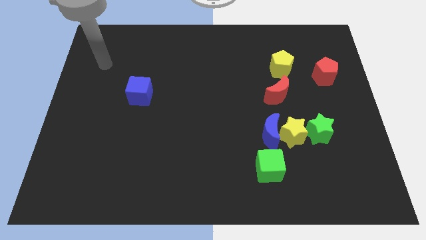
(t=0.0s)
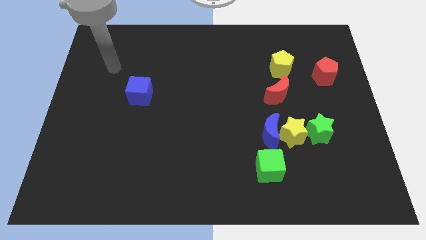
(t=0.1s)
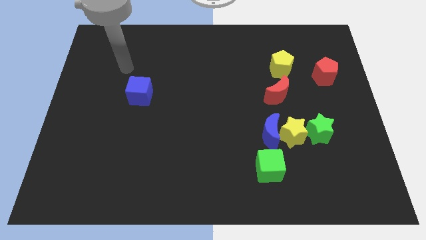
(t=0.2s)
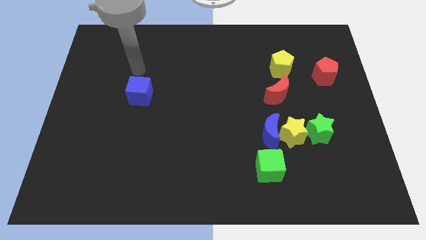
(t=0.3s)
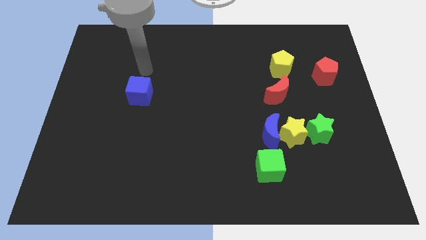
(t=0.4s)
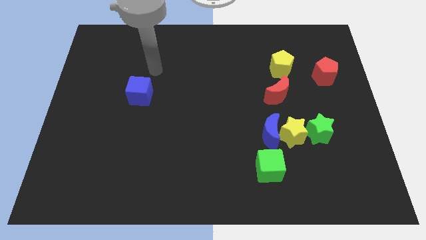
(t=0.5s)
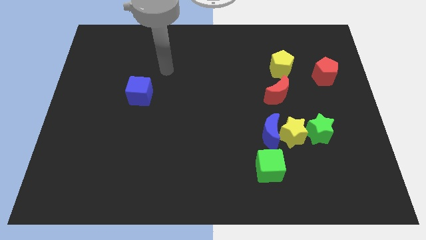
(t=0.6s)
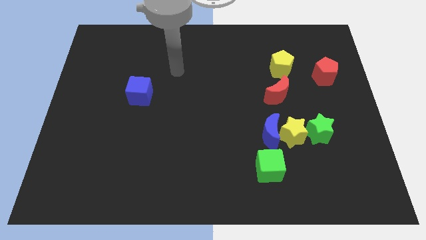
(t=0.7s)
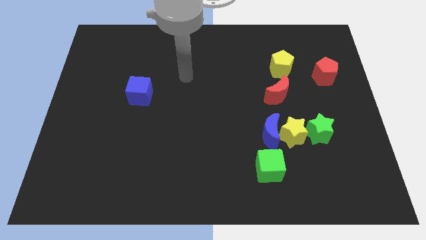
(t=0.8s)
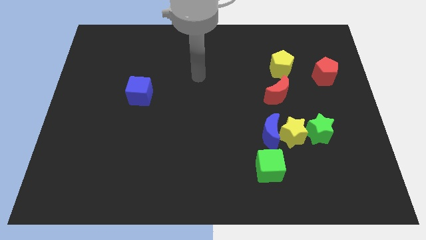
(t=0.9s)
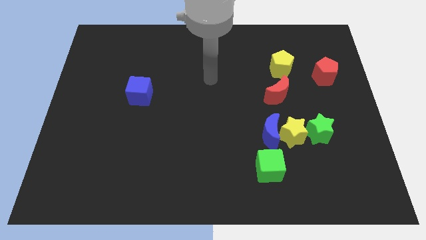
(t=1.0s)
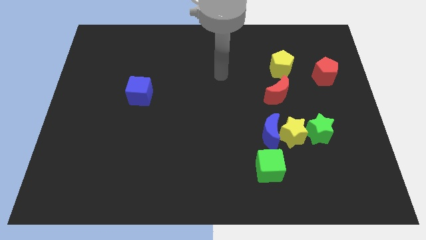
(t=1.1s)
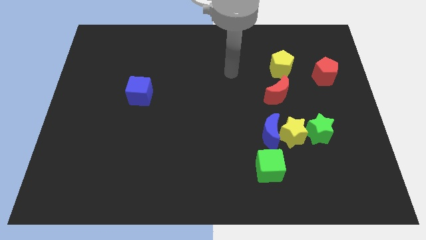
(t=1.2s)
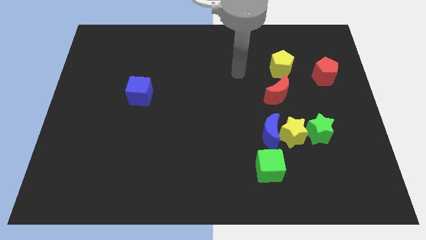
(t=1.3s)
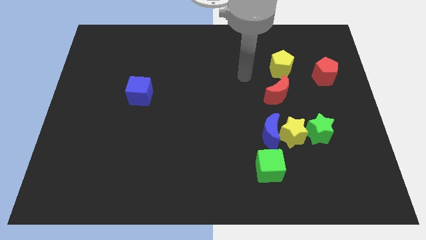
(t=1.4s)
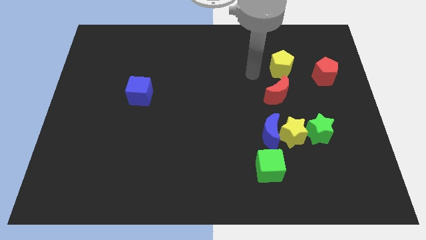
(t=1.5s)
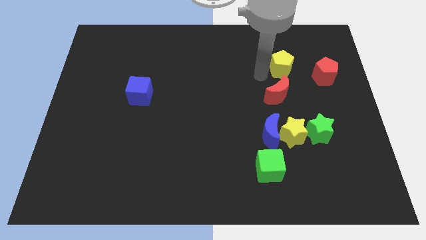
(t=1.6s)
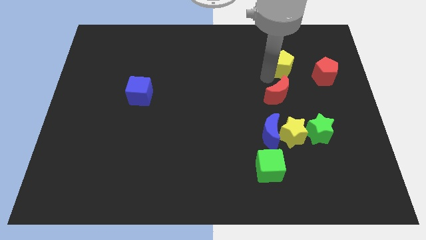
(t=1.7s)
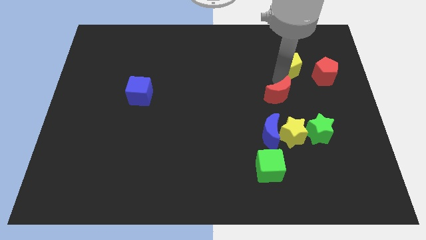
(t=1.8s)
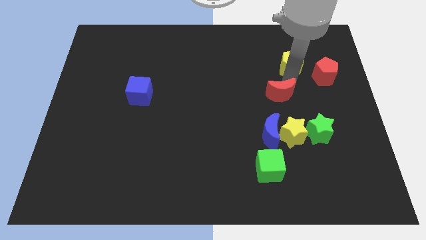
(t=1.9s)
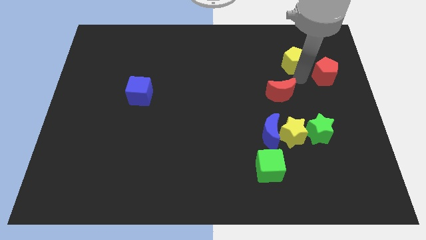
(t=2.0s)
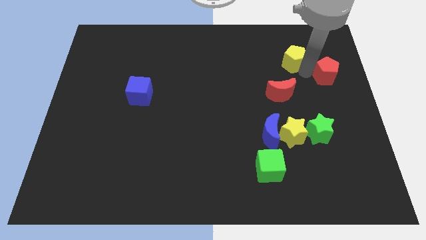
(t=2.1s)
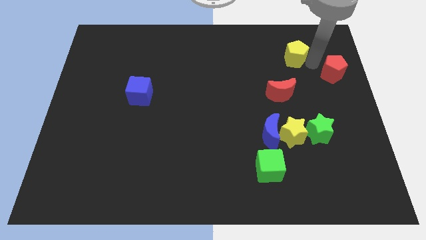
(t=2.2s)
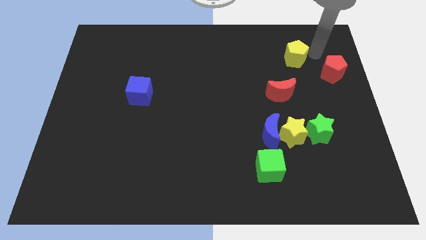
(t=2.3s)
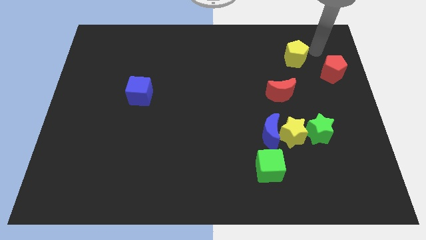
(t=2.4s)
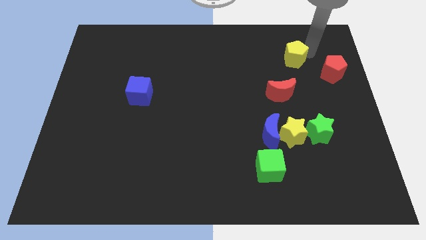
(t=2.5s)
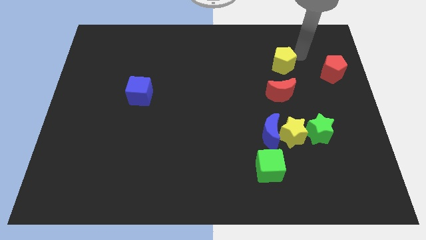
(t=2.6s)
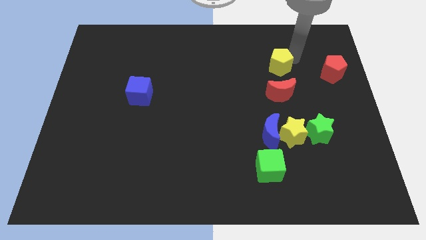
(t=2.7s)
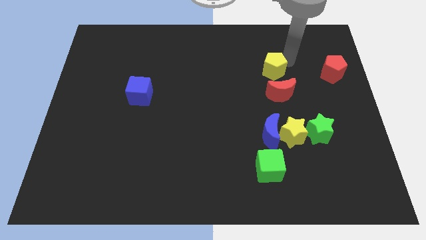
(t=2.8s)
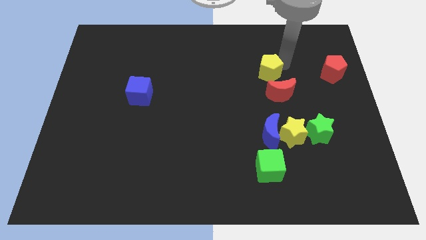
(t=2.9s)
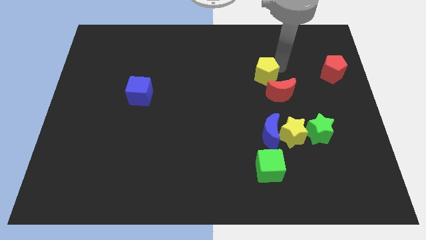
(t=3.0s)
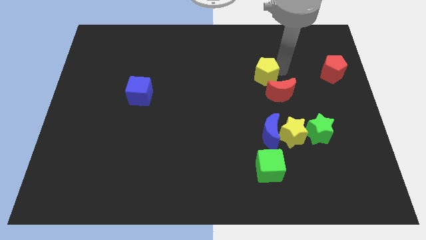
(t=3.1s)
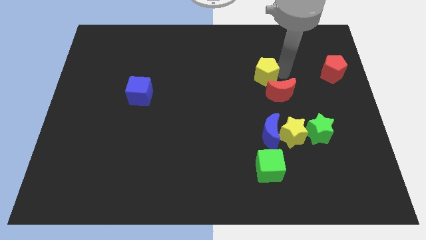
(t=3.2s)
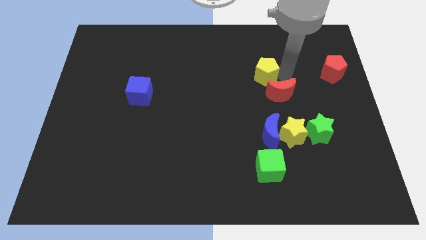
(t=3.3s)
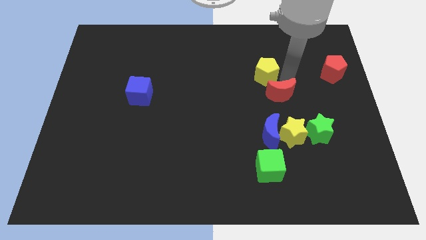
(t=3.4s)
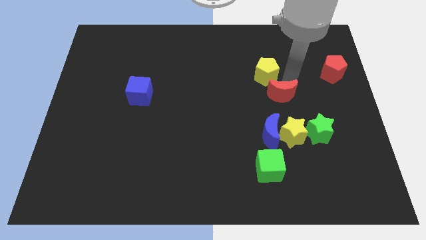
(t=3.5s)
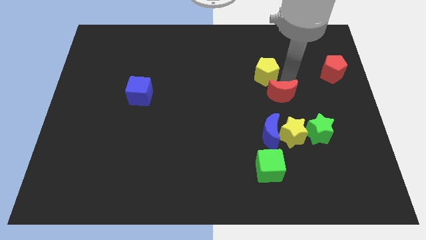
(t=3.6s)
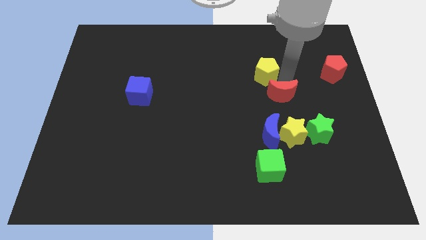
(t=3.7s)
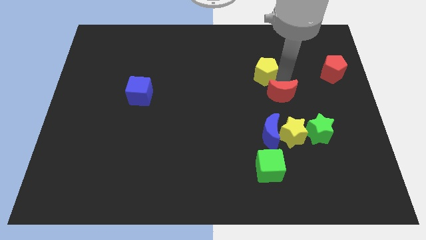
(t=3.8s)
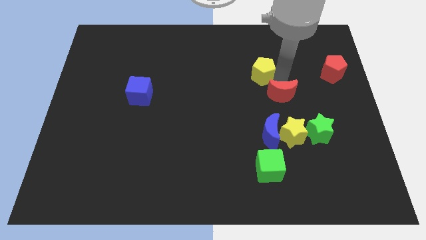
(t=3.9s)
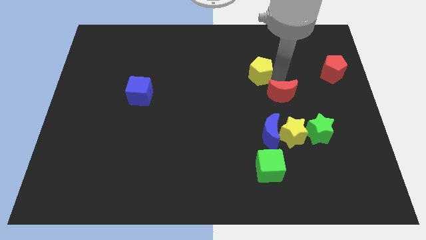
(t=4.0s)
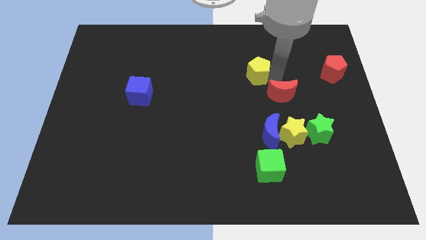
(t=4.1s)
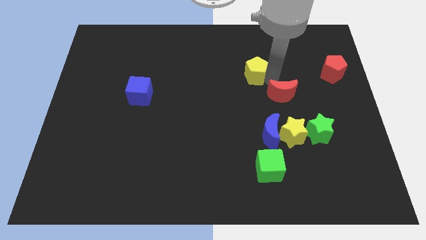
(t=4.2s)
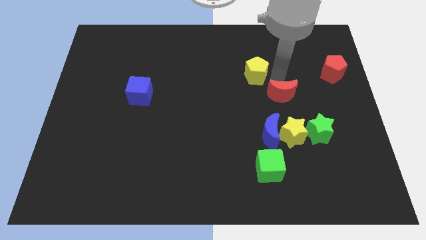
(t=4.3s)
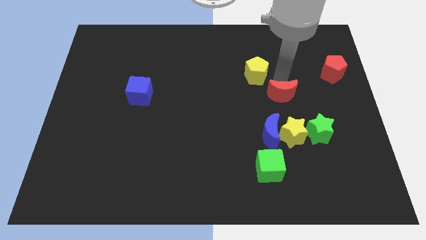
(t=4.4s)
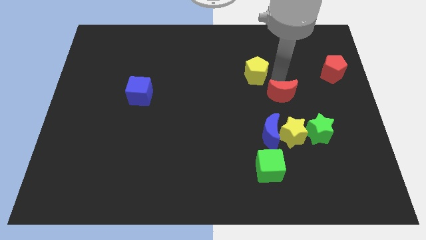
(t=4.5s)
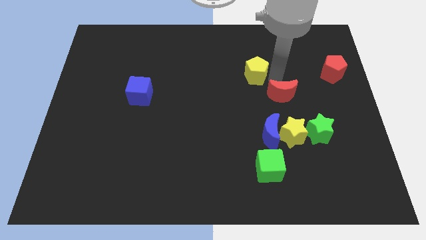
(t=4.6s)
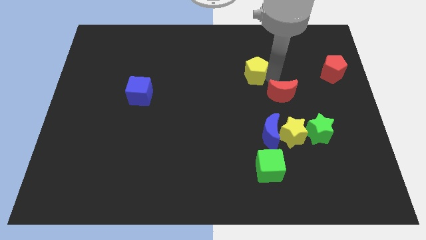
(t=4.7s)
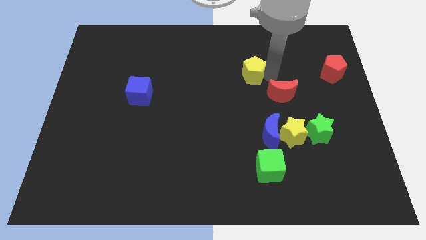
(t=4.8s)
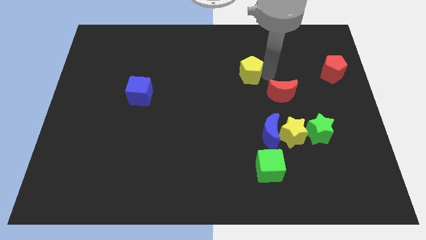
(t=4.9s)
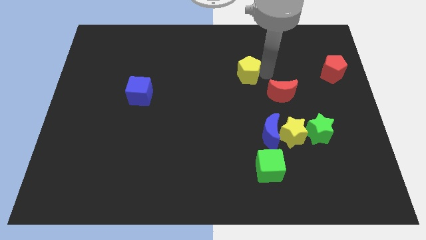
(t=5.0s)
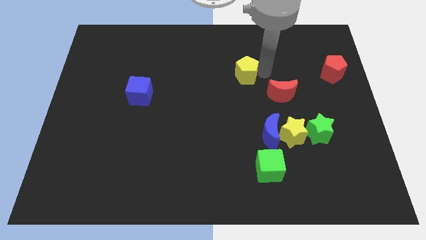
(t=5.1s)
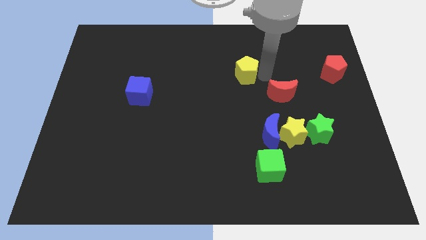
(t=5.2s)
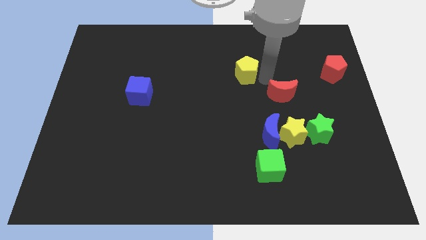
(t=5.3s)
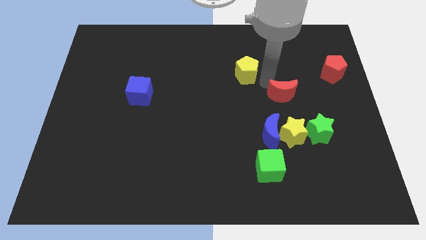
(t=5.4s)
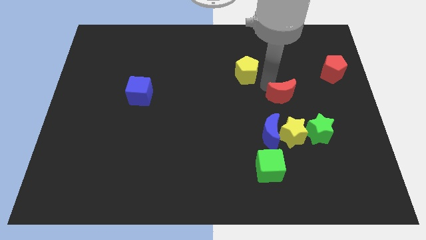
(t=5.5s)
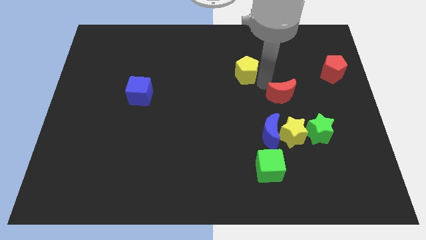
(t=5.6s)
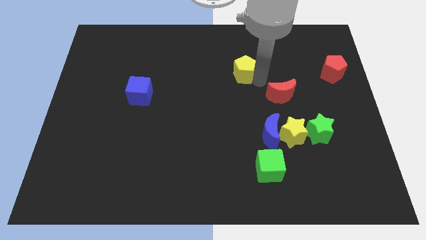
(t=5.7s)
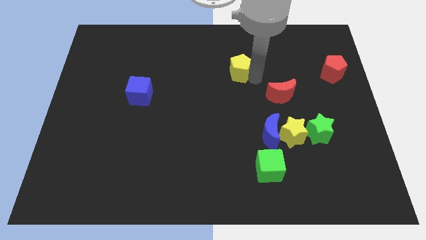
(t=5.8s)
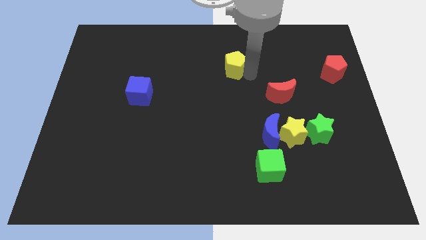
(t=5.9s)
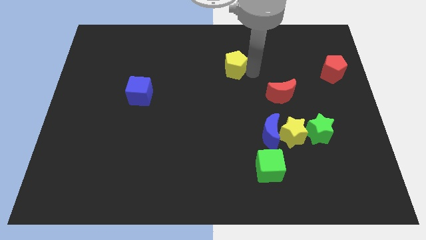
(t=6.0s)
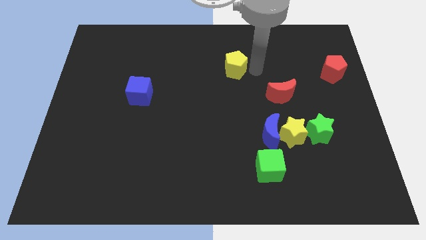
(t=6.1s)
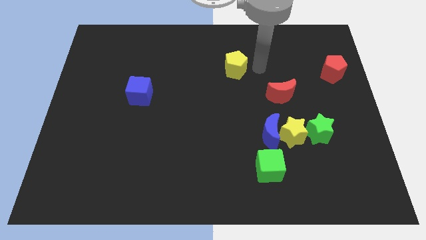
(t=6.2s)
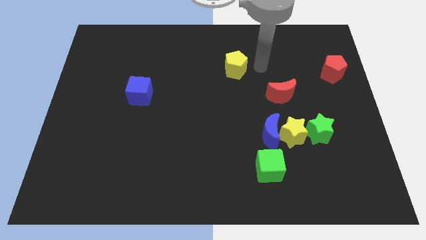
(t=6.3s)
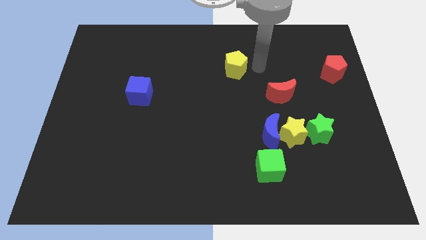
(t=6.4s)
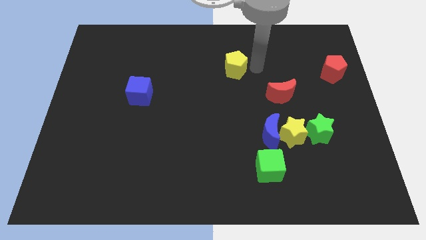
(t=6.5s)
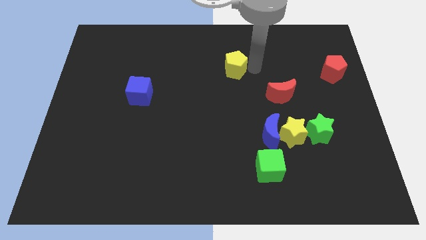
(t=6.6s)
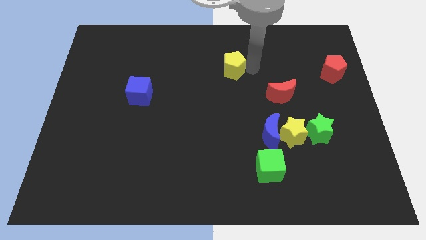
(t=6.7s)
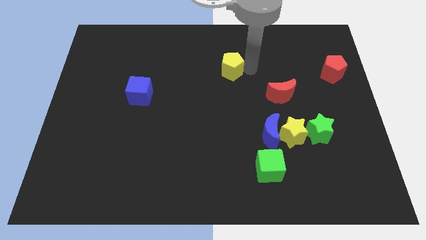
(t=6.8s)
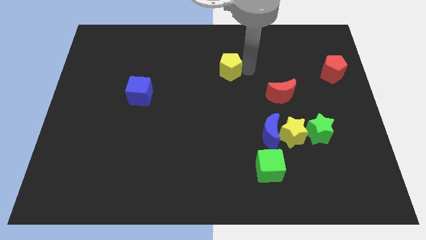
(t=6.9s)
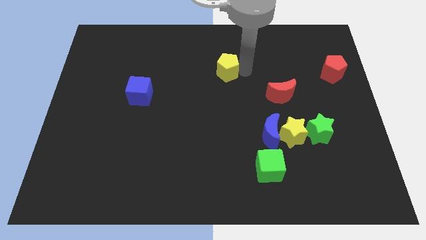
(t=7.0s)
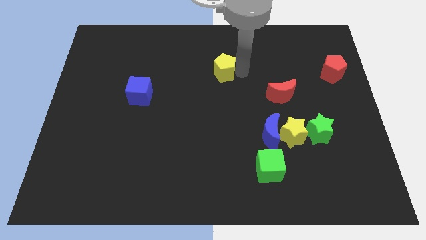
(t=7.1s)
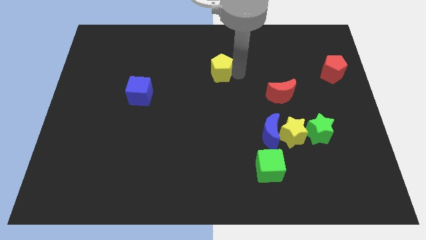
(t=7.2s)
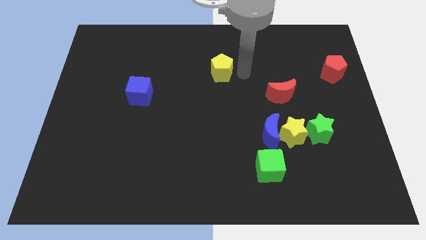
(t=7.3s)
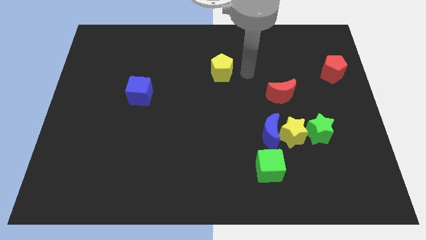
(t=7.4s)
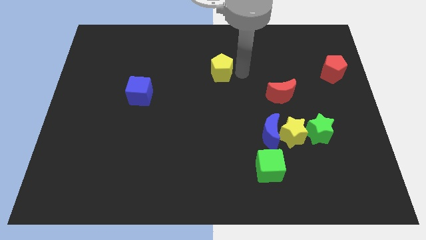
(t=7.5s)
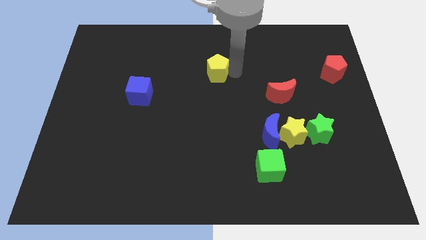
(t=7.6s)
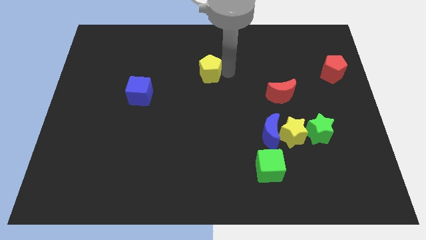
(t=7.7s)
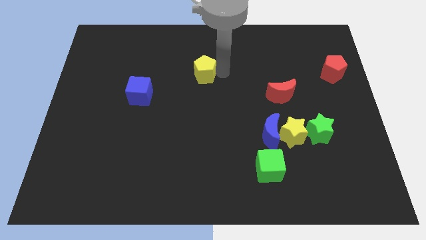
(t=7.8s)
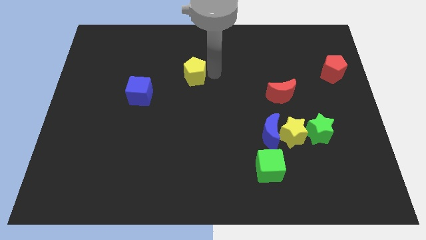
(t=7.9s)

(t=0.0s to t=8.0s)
push the yellow pentagon to the left

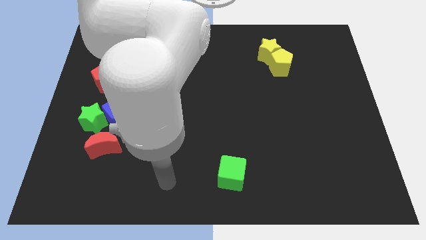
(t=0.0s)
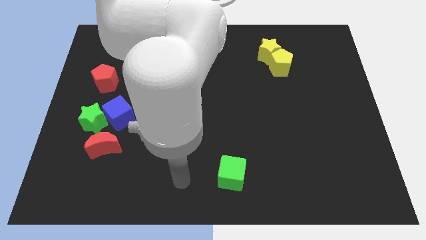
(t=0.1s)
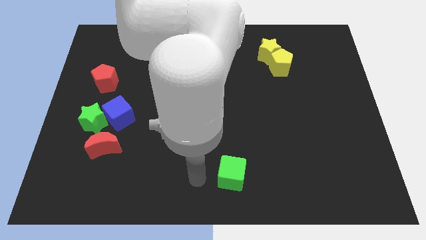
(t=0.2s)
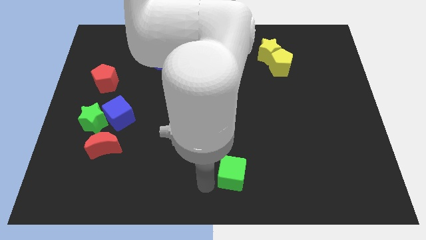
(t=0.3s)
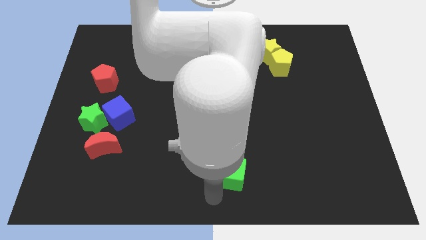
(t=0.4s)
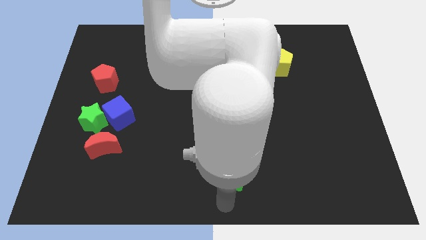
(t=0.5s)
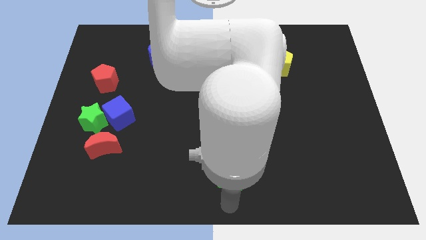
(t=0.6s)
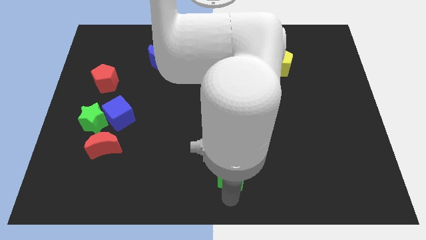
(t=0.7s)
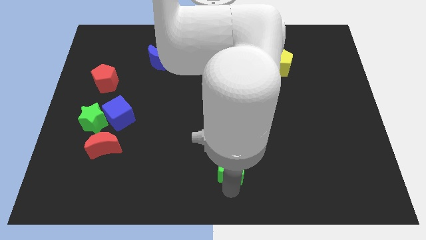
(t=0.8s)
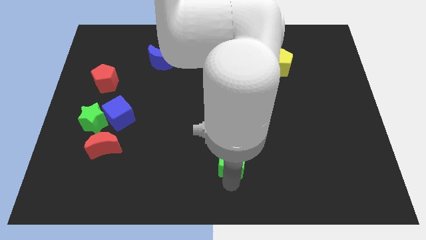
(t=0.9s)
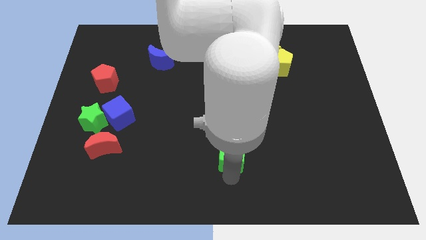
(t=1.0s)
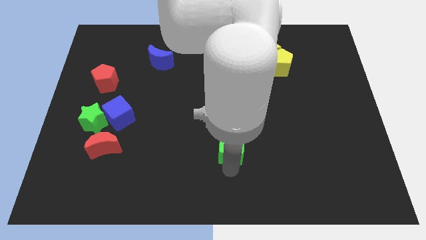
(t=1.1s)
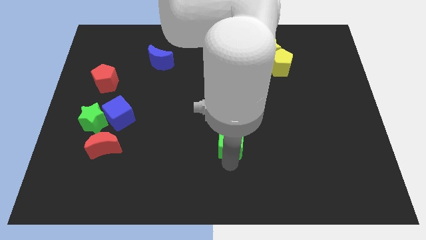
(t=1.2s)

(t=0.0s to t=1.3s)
slightly push the green cube up
